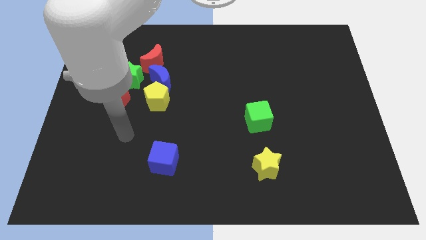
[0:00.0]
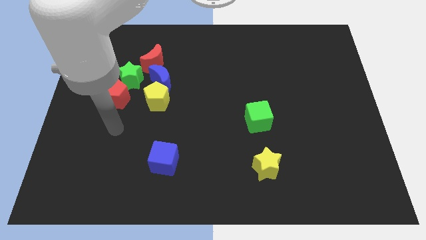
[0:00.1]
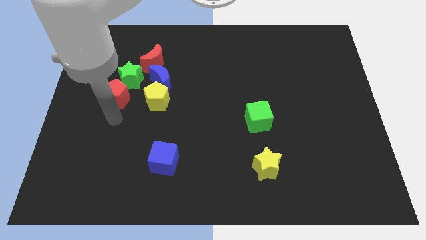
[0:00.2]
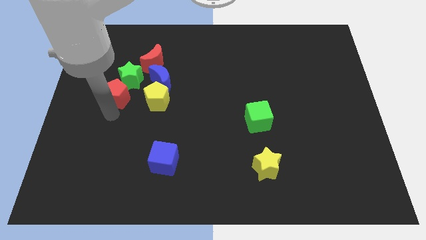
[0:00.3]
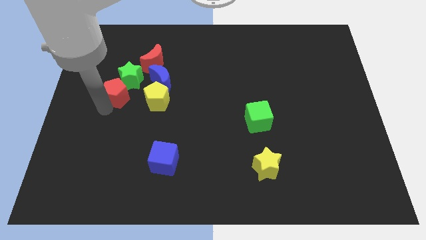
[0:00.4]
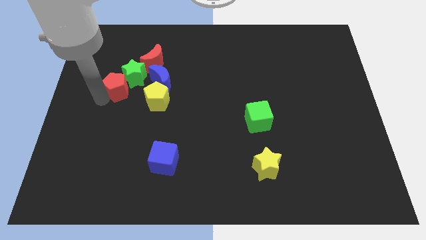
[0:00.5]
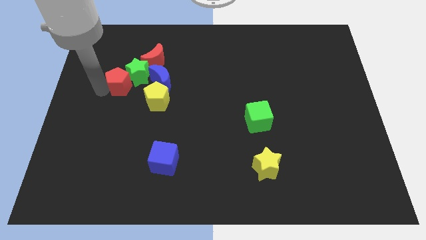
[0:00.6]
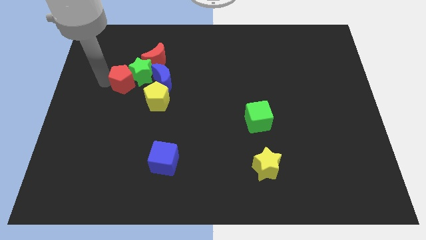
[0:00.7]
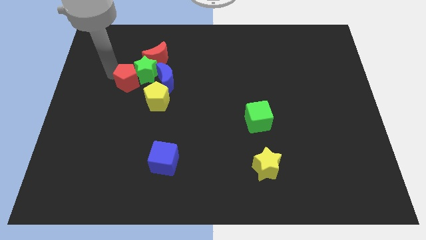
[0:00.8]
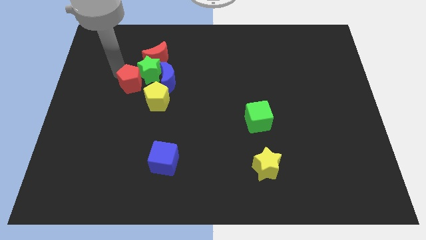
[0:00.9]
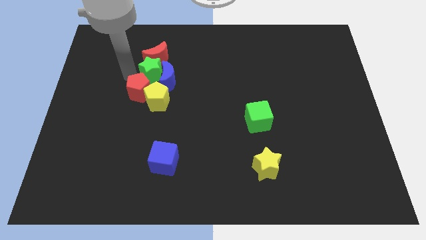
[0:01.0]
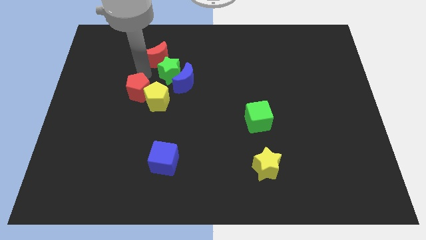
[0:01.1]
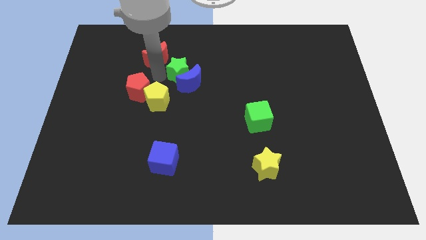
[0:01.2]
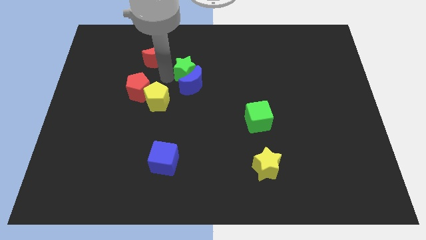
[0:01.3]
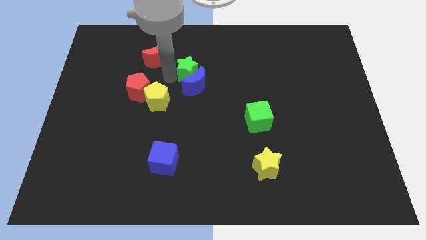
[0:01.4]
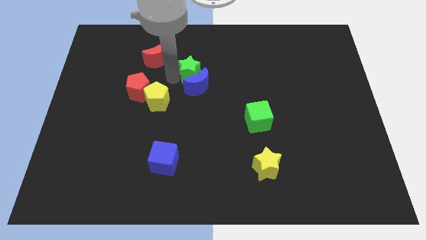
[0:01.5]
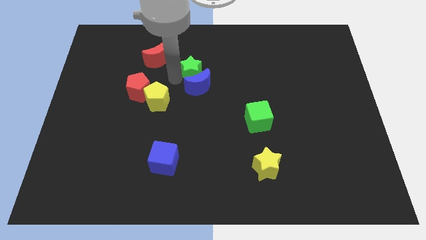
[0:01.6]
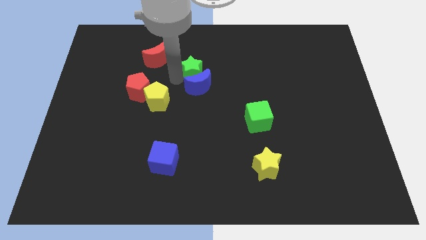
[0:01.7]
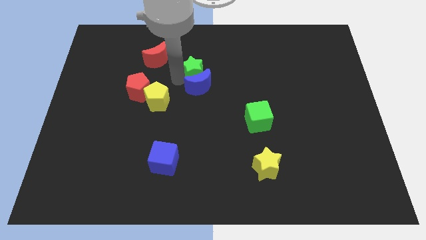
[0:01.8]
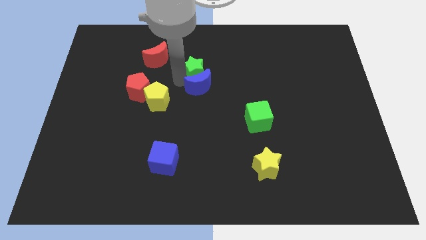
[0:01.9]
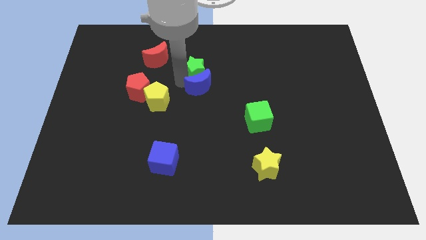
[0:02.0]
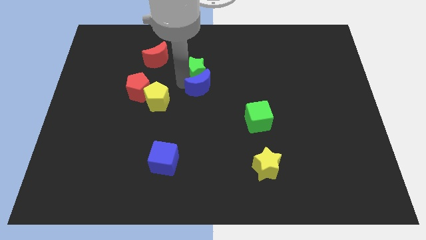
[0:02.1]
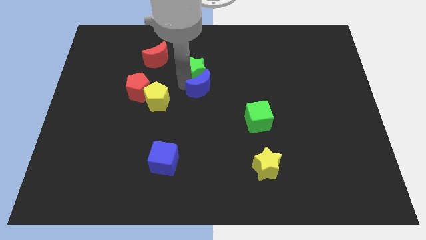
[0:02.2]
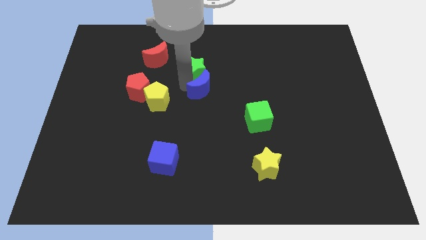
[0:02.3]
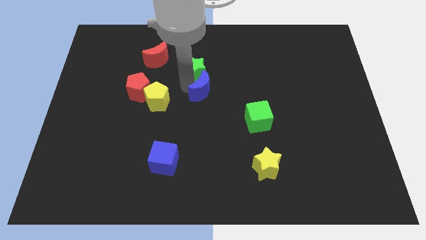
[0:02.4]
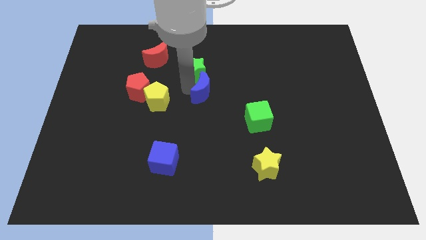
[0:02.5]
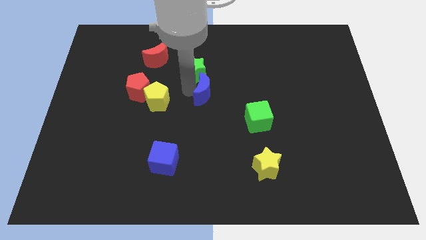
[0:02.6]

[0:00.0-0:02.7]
move the blue moon away from the group of blocks

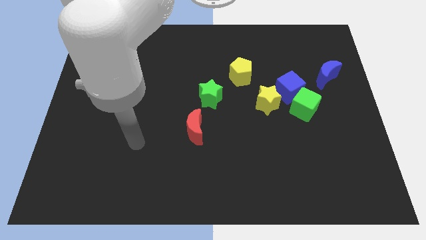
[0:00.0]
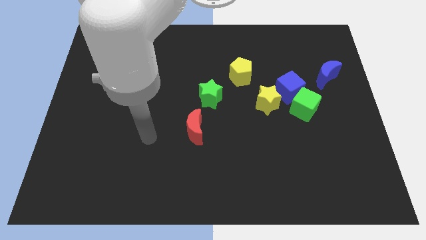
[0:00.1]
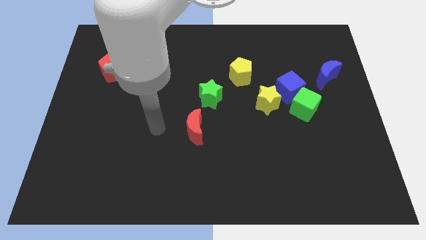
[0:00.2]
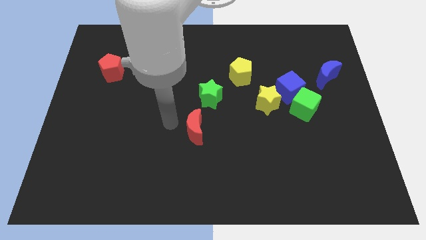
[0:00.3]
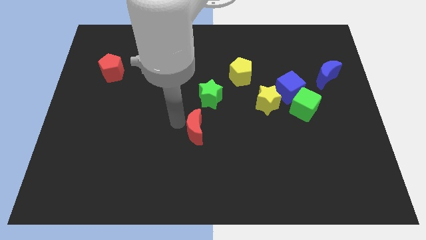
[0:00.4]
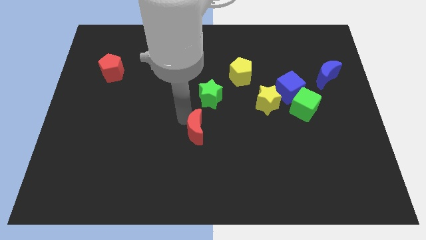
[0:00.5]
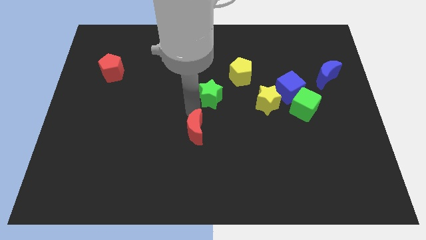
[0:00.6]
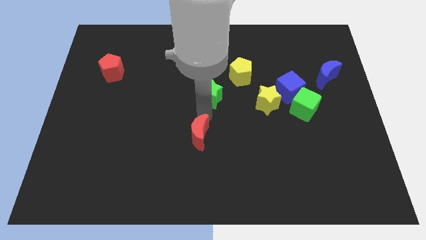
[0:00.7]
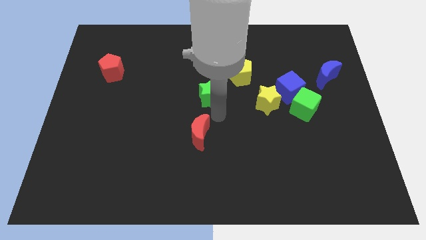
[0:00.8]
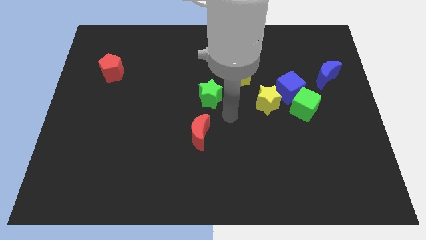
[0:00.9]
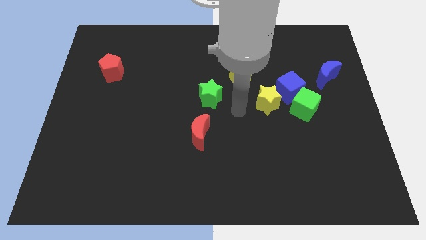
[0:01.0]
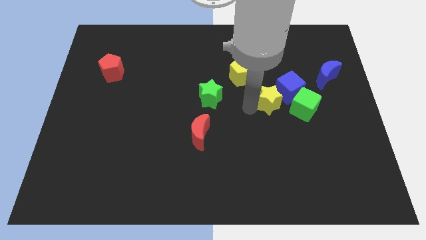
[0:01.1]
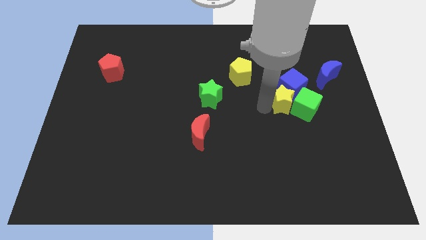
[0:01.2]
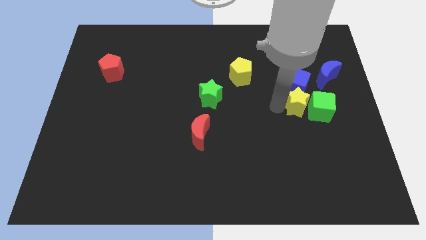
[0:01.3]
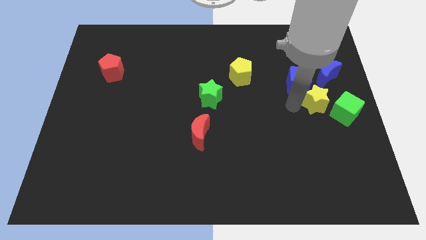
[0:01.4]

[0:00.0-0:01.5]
separate the blue cube from the green cube and yellow star

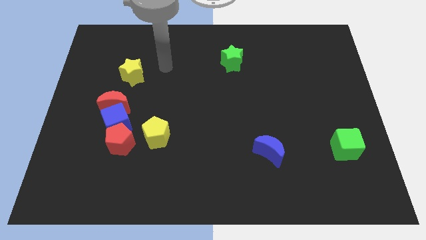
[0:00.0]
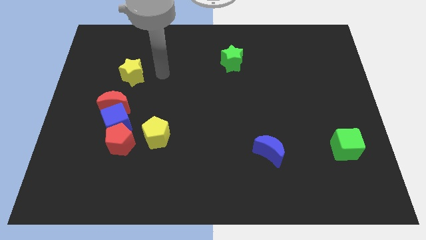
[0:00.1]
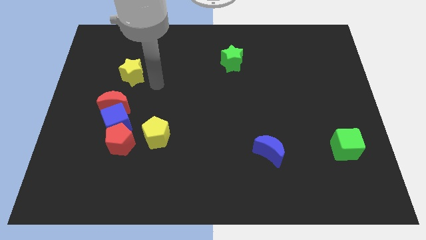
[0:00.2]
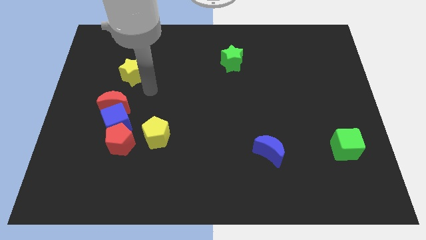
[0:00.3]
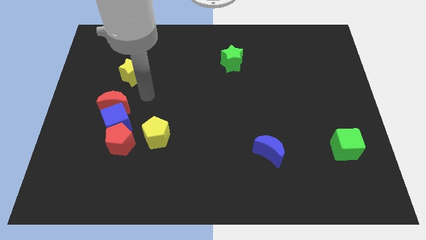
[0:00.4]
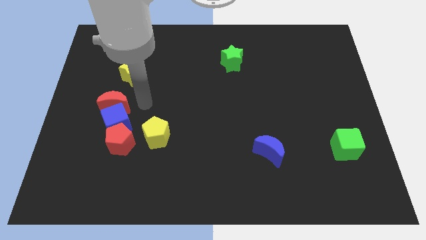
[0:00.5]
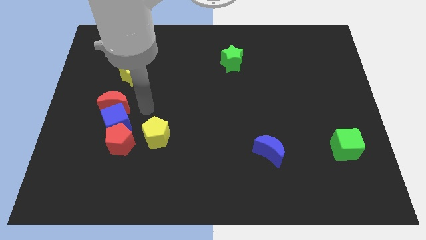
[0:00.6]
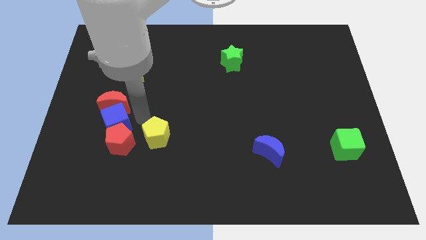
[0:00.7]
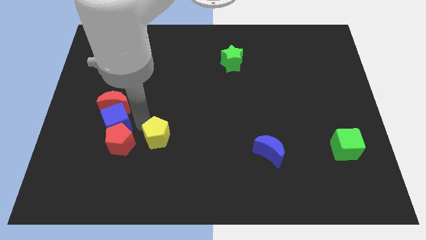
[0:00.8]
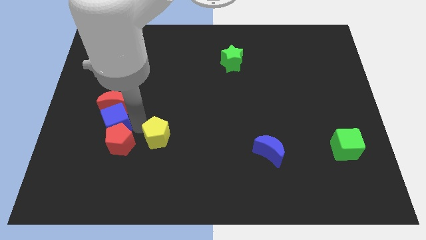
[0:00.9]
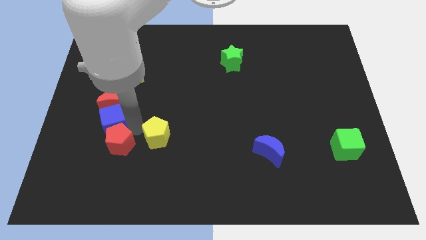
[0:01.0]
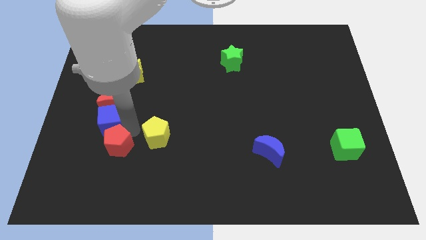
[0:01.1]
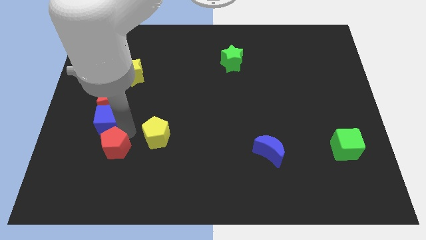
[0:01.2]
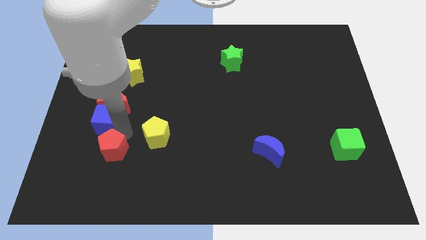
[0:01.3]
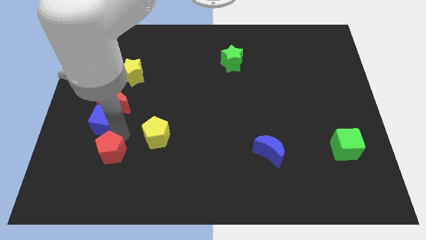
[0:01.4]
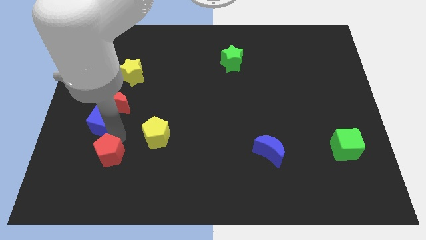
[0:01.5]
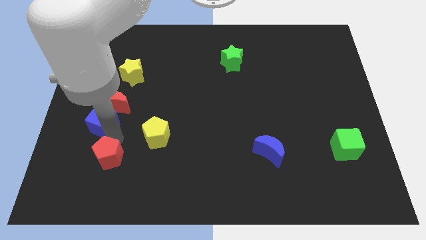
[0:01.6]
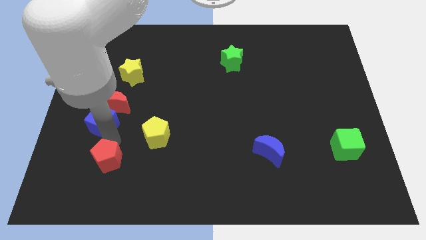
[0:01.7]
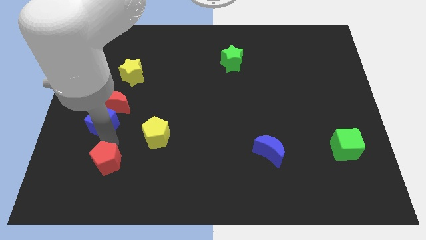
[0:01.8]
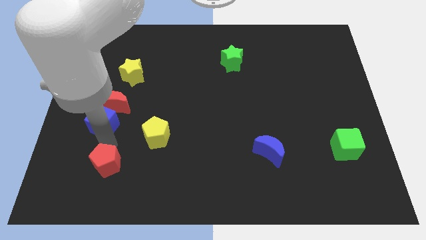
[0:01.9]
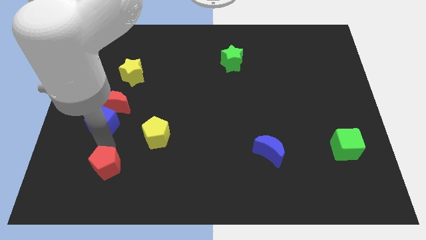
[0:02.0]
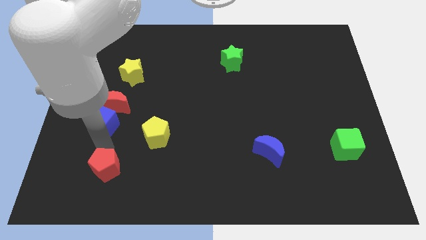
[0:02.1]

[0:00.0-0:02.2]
pull the red pentagon apart from the blue cube and yellow pentagon

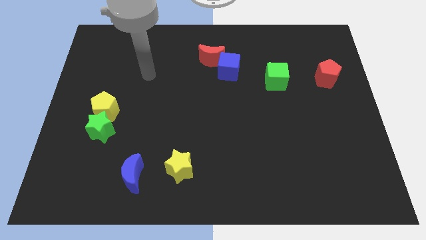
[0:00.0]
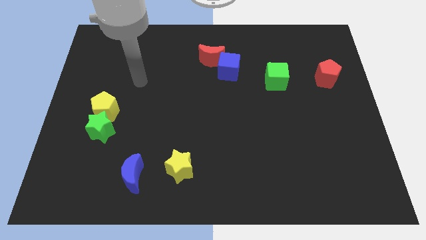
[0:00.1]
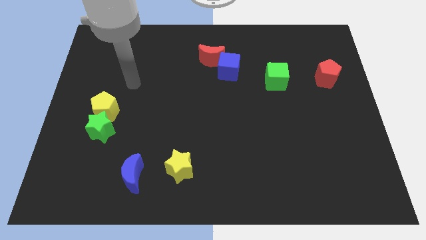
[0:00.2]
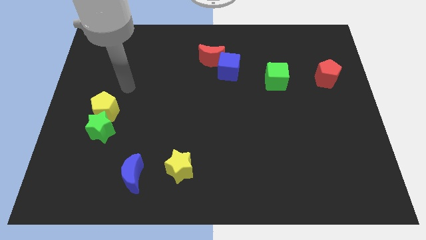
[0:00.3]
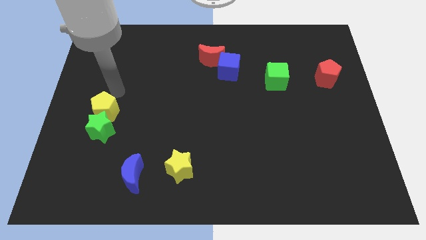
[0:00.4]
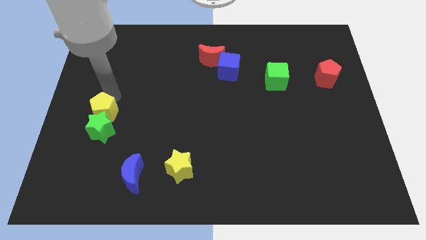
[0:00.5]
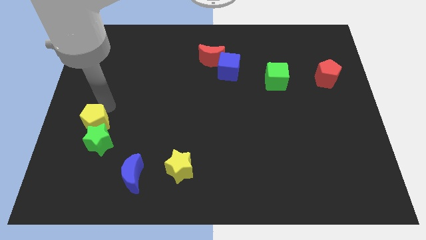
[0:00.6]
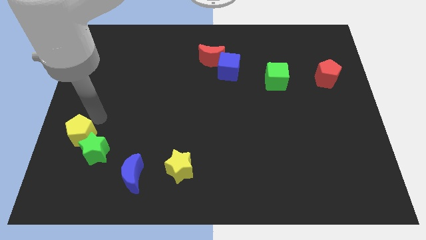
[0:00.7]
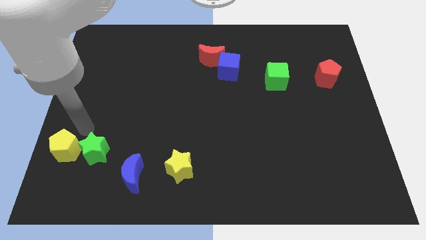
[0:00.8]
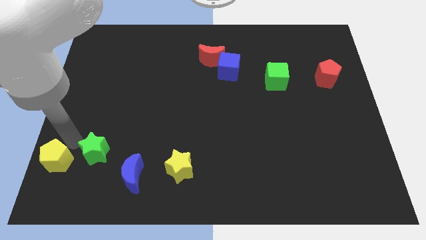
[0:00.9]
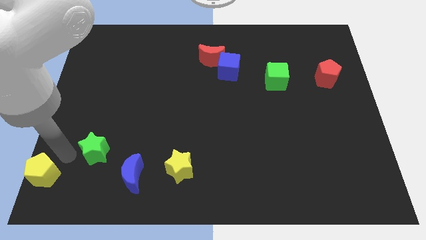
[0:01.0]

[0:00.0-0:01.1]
move the green star away from the yellow pentagon

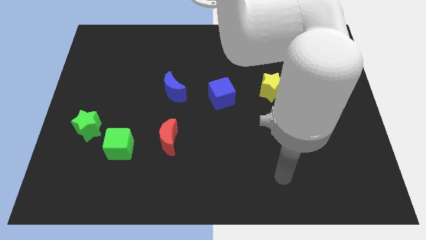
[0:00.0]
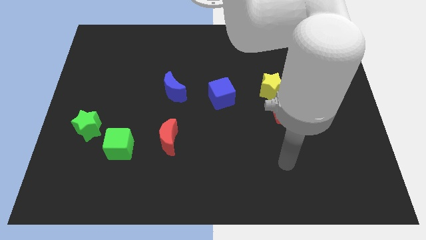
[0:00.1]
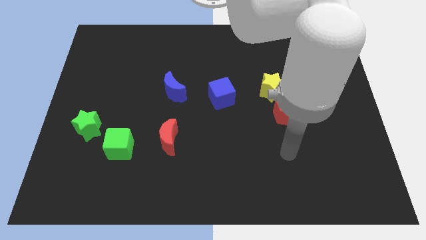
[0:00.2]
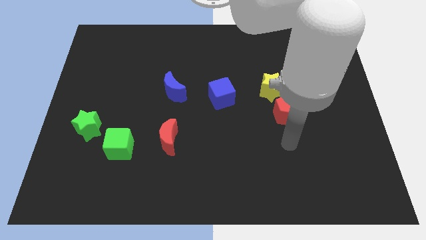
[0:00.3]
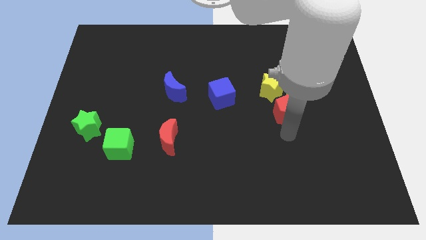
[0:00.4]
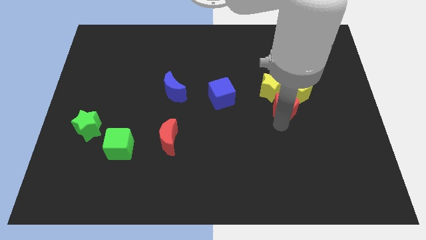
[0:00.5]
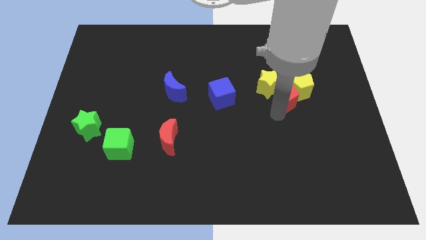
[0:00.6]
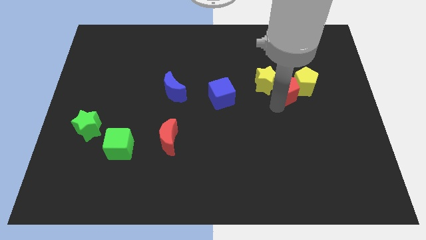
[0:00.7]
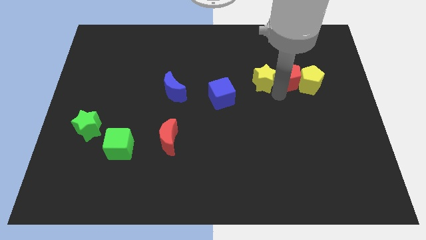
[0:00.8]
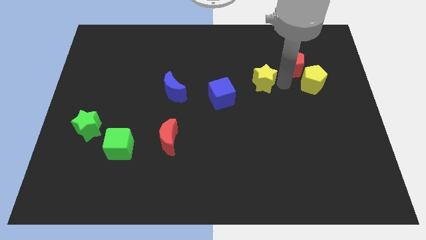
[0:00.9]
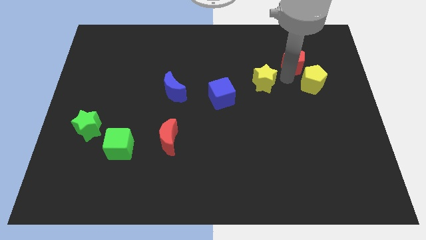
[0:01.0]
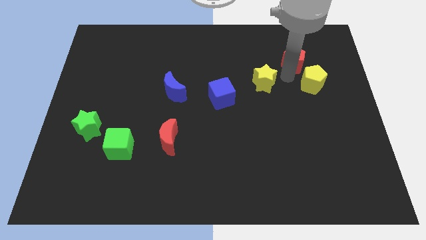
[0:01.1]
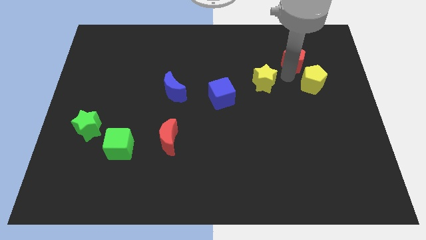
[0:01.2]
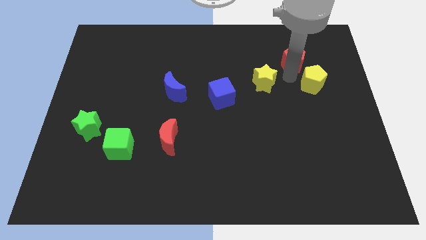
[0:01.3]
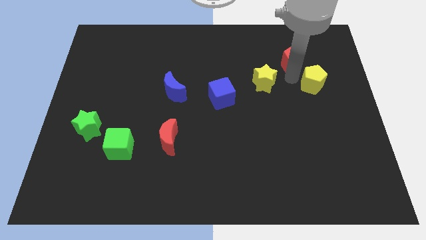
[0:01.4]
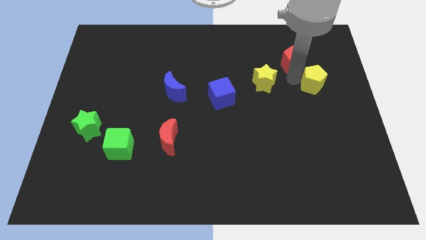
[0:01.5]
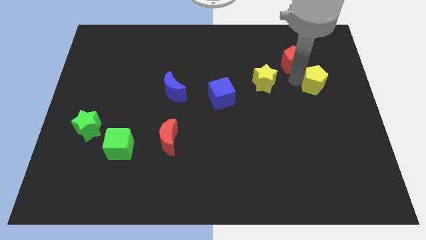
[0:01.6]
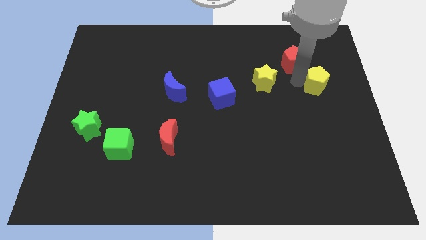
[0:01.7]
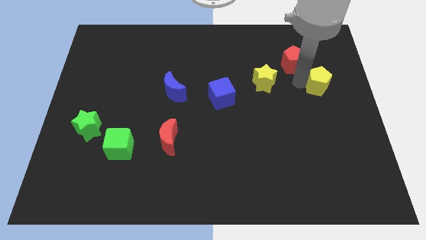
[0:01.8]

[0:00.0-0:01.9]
separate the yellow pentagon from the yellow star and red pentagon

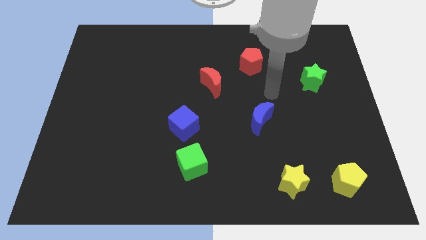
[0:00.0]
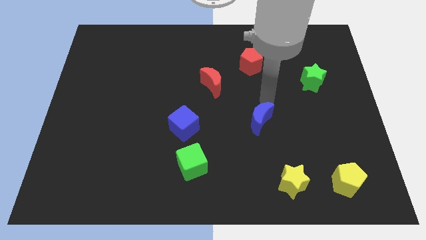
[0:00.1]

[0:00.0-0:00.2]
separate the blue cube from the green cube
